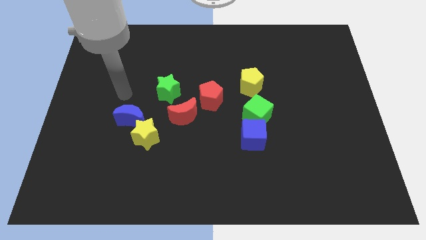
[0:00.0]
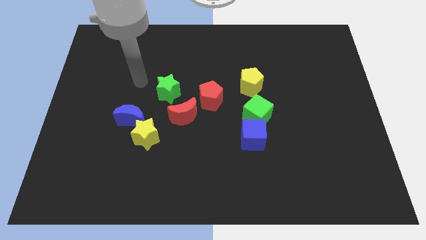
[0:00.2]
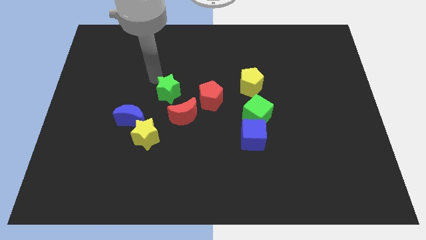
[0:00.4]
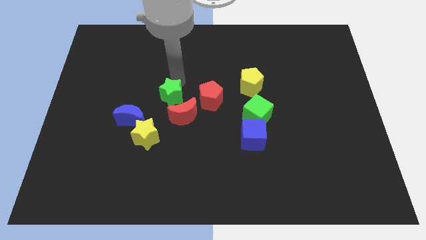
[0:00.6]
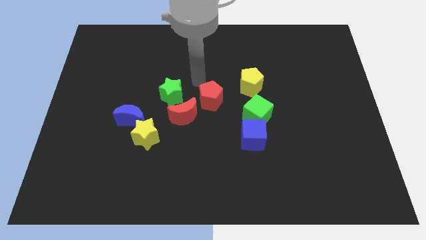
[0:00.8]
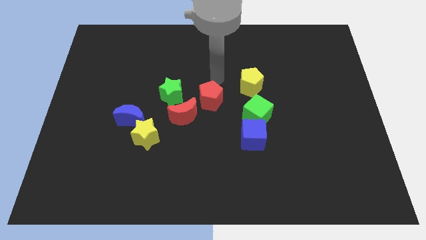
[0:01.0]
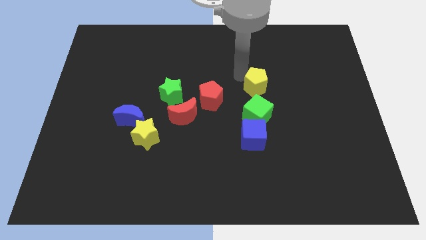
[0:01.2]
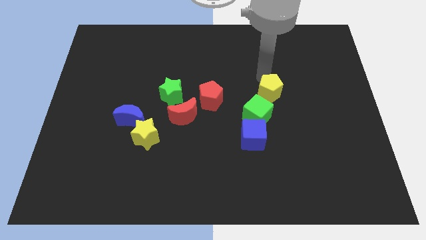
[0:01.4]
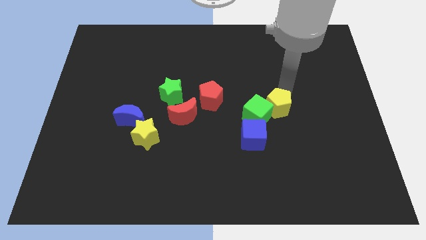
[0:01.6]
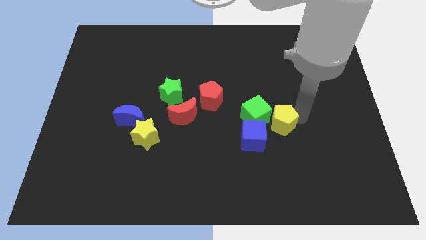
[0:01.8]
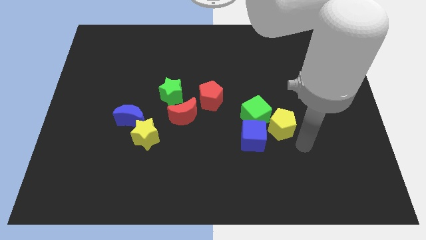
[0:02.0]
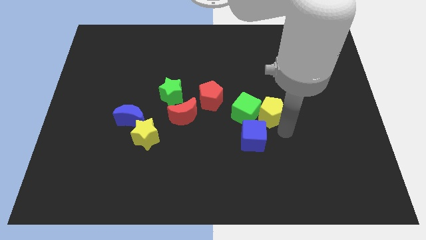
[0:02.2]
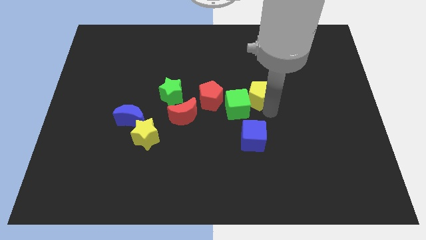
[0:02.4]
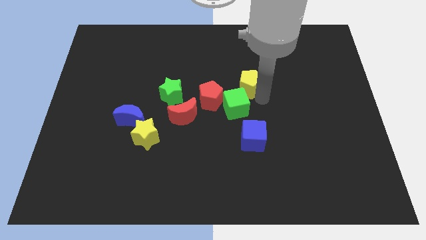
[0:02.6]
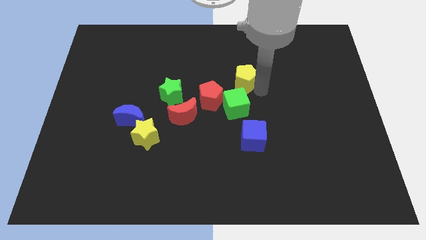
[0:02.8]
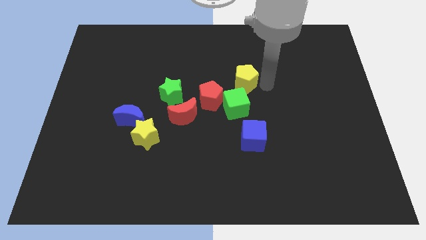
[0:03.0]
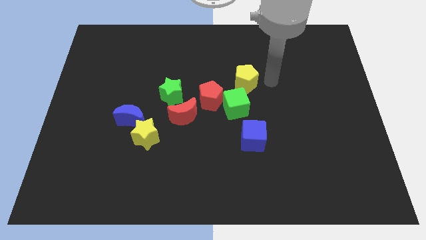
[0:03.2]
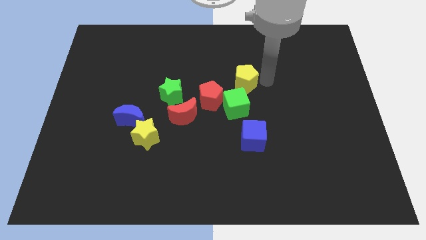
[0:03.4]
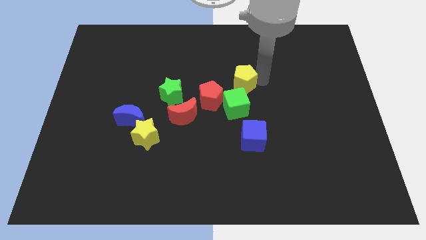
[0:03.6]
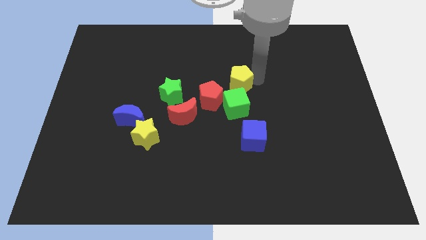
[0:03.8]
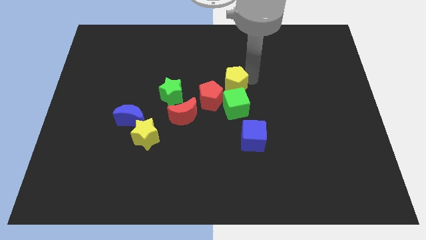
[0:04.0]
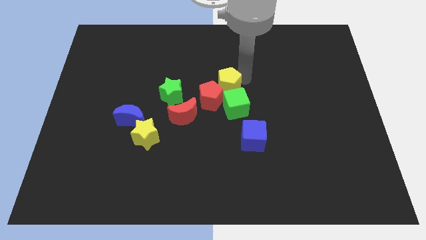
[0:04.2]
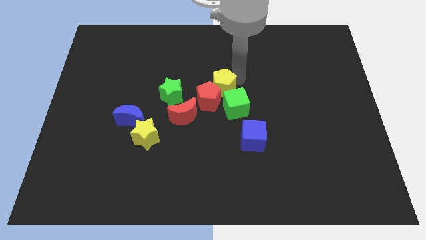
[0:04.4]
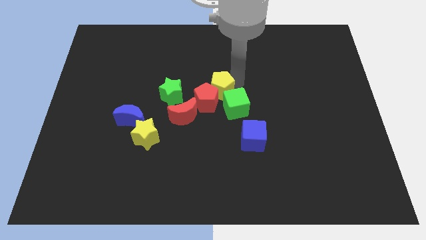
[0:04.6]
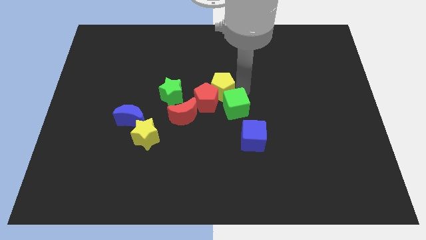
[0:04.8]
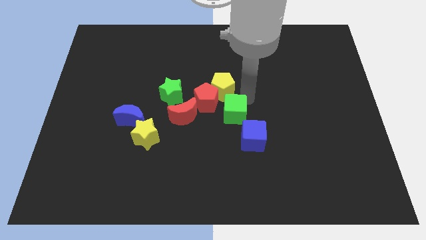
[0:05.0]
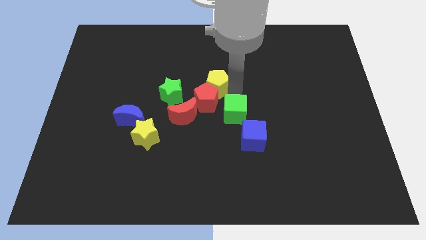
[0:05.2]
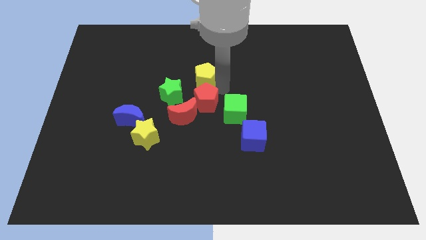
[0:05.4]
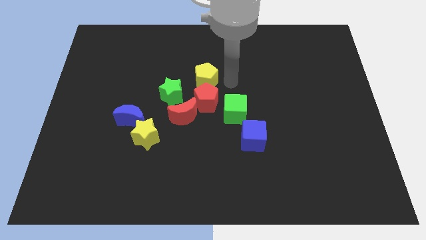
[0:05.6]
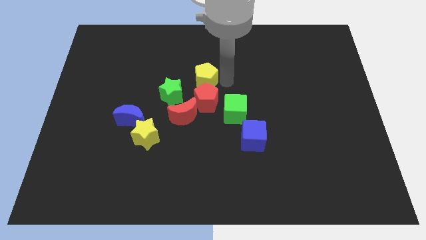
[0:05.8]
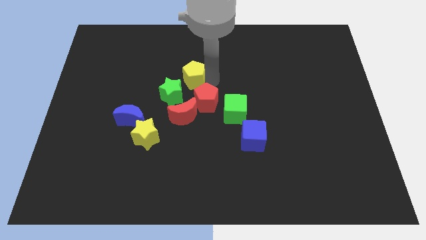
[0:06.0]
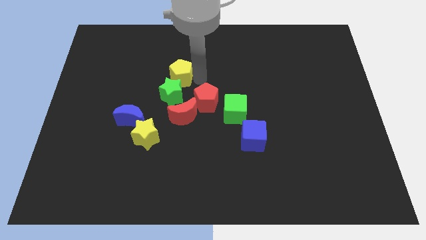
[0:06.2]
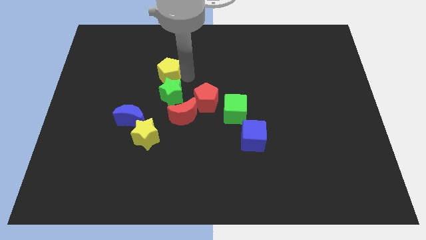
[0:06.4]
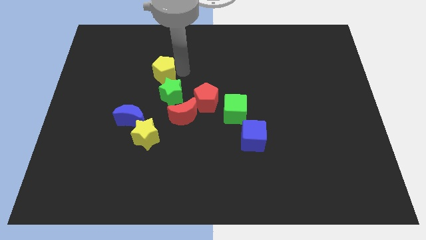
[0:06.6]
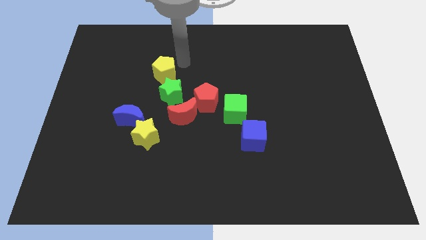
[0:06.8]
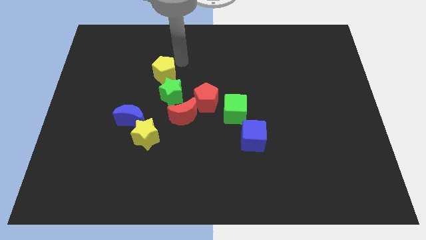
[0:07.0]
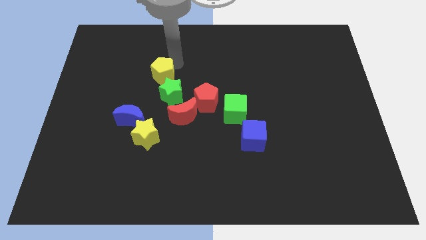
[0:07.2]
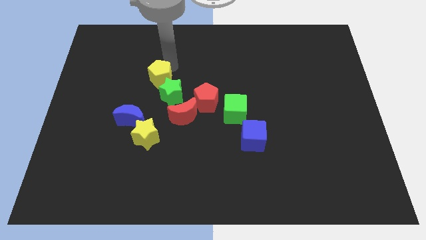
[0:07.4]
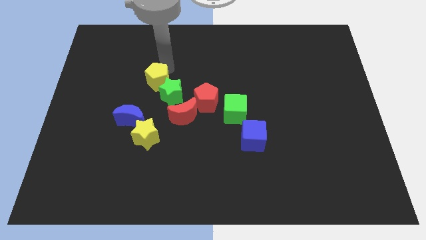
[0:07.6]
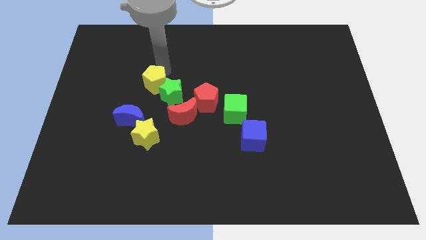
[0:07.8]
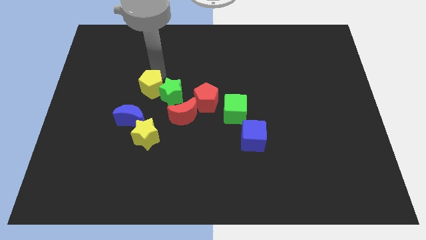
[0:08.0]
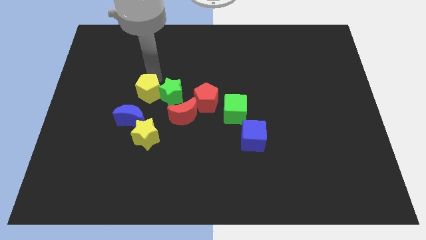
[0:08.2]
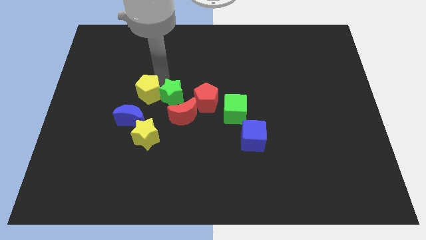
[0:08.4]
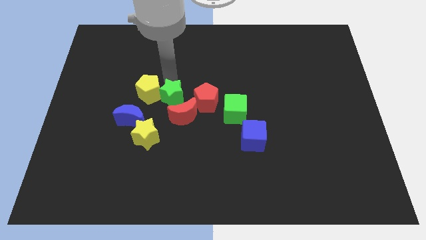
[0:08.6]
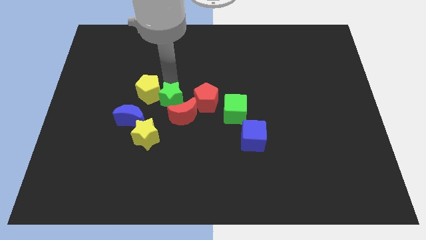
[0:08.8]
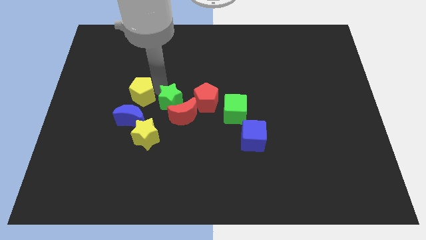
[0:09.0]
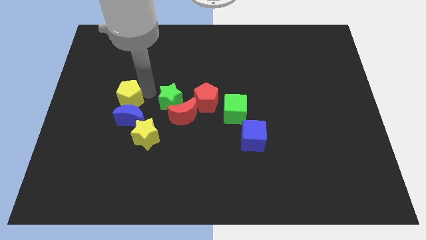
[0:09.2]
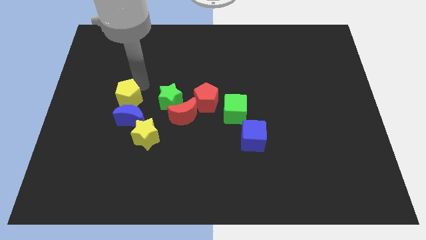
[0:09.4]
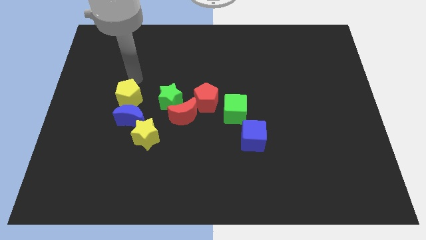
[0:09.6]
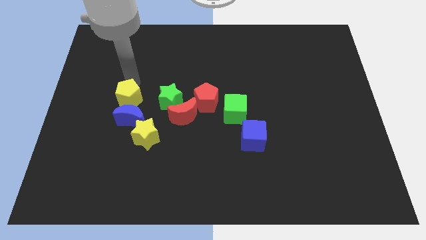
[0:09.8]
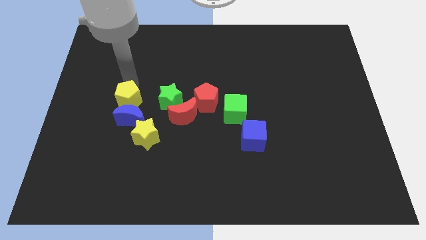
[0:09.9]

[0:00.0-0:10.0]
move the yellow pentagon to the top left of the yellow star
